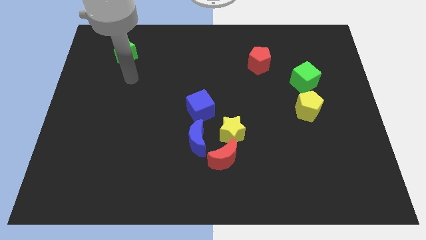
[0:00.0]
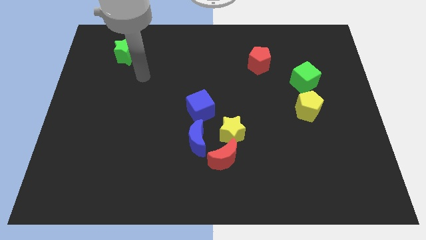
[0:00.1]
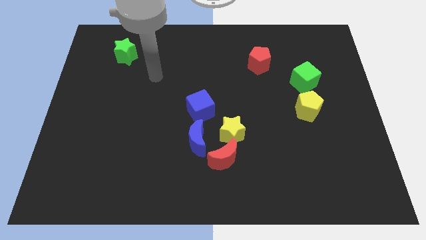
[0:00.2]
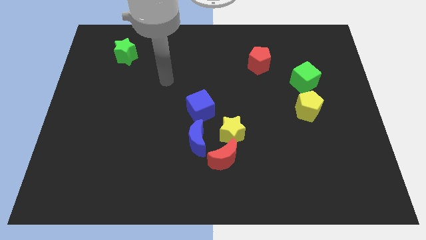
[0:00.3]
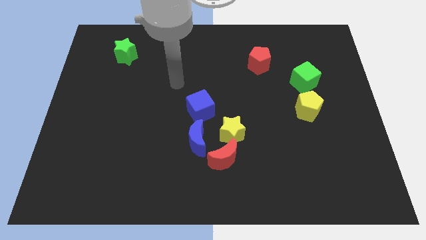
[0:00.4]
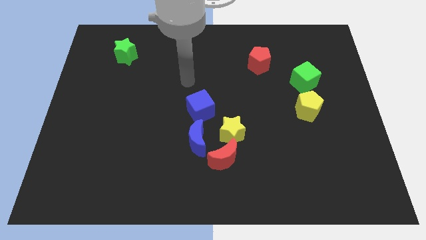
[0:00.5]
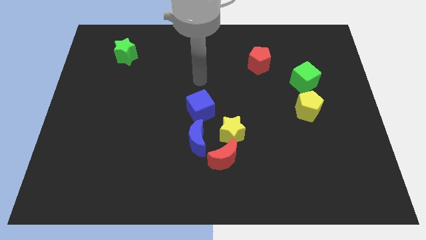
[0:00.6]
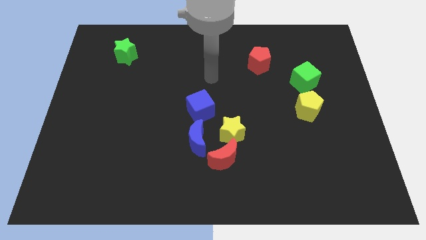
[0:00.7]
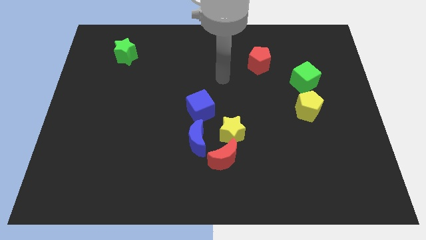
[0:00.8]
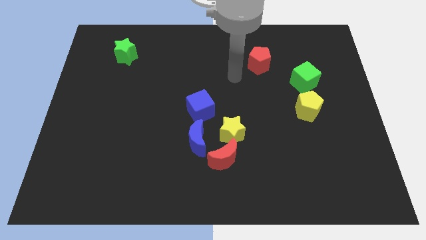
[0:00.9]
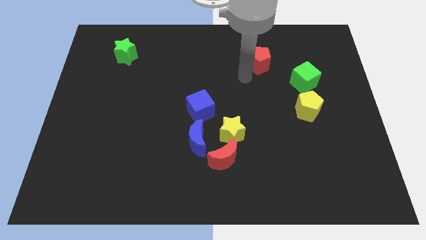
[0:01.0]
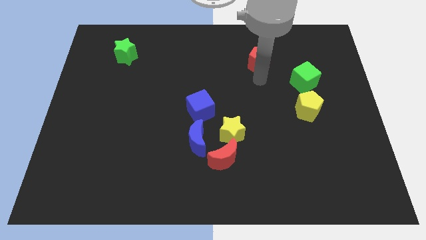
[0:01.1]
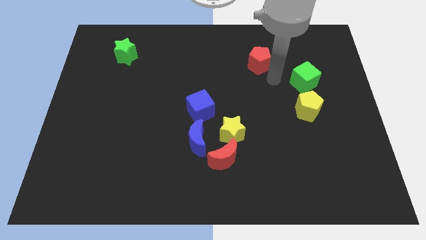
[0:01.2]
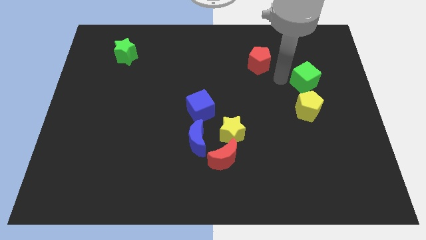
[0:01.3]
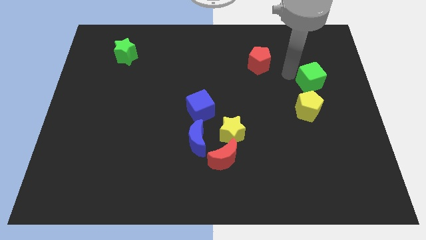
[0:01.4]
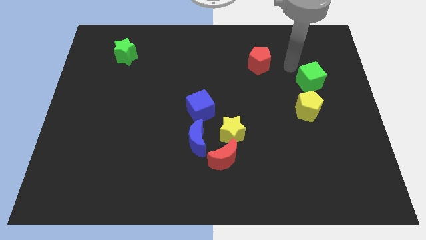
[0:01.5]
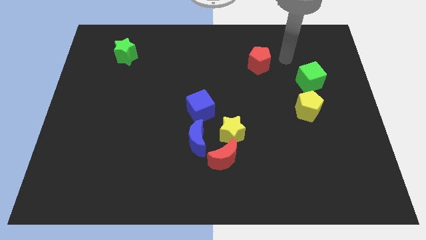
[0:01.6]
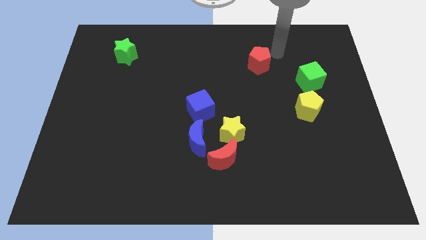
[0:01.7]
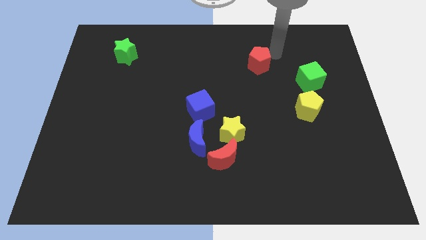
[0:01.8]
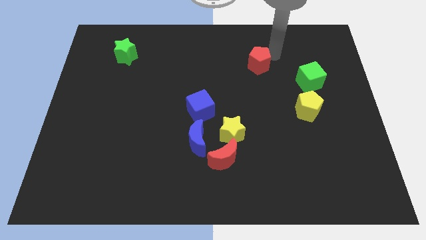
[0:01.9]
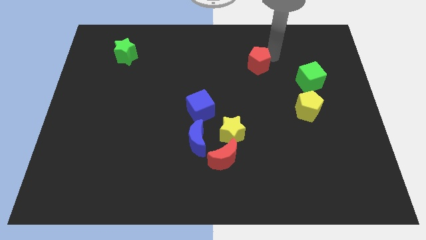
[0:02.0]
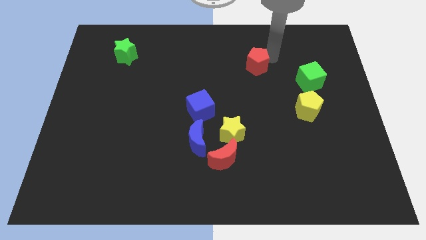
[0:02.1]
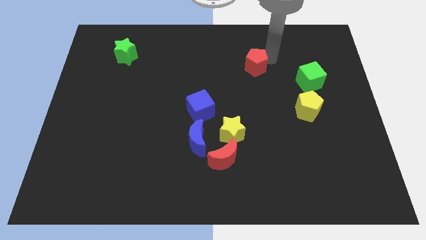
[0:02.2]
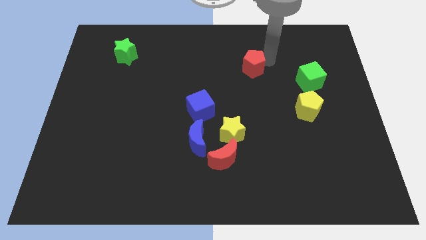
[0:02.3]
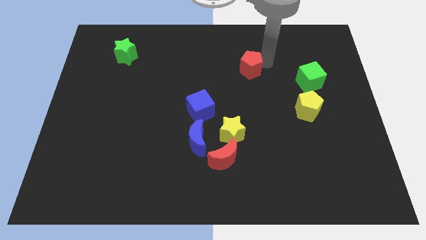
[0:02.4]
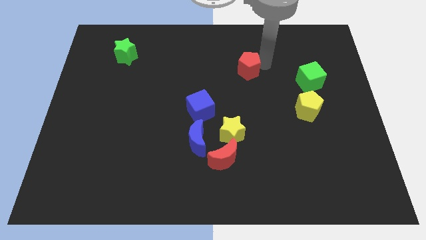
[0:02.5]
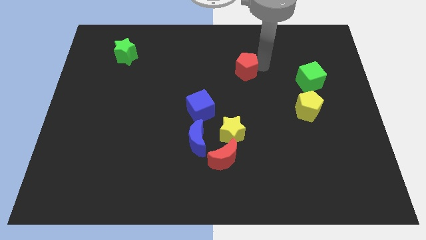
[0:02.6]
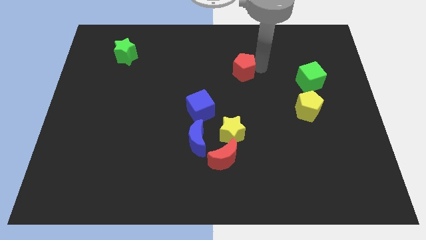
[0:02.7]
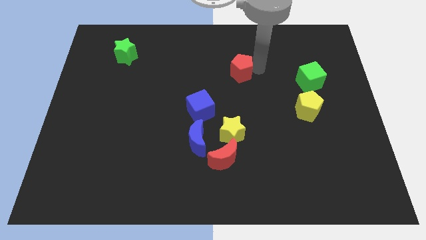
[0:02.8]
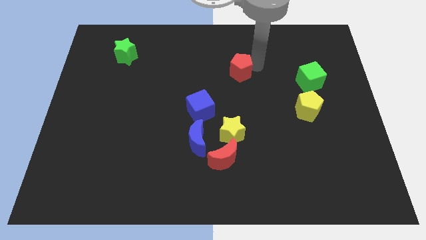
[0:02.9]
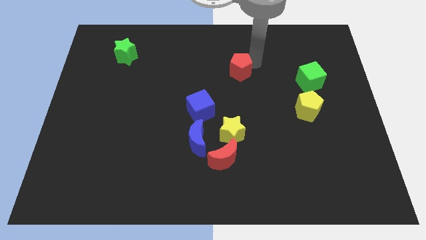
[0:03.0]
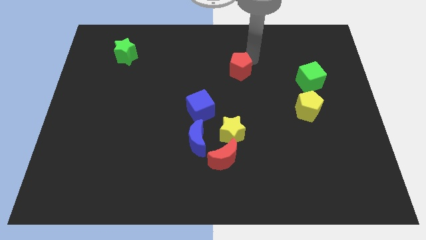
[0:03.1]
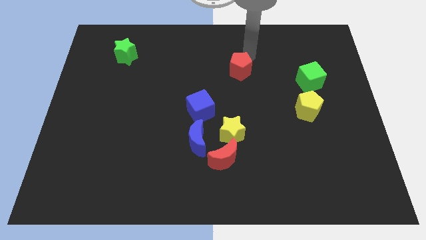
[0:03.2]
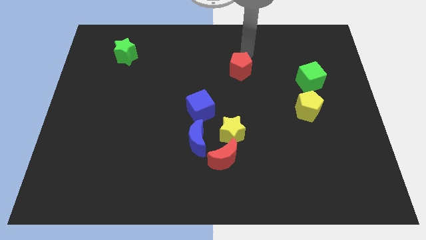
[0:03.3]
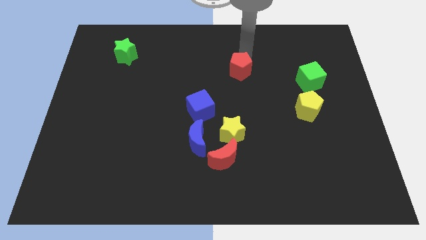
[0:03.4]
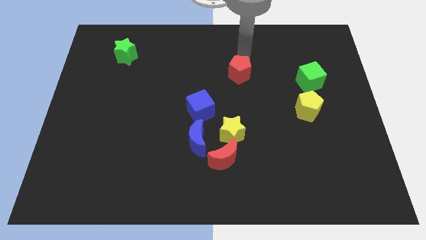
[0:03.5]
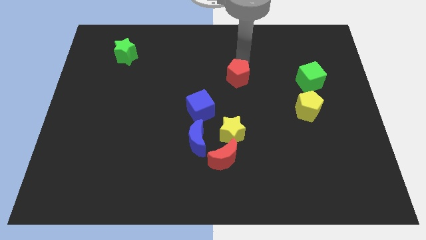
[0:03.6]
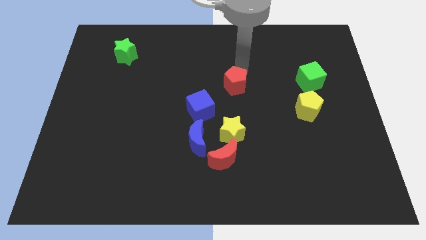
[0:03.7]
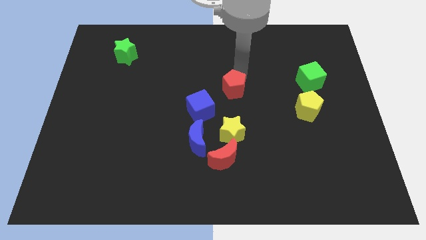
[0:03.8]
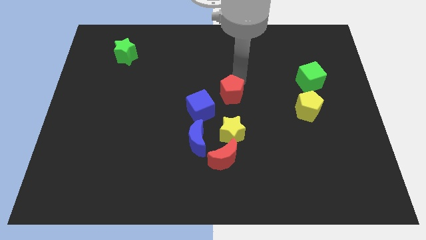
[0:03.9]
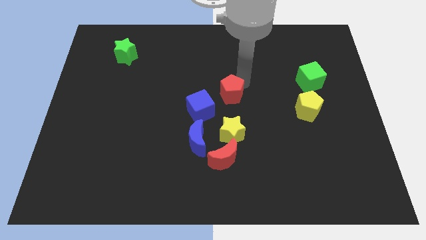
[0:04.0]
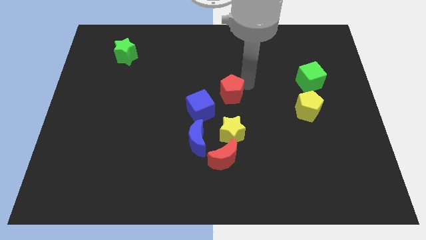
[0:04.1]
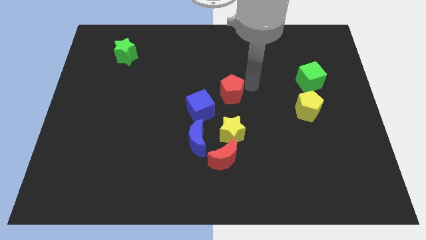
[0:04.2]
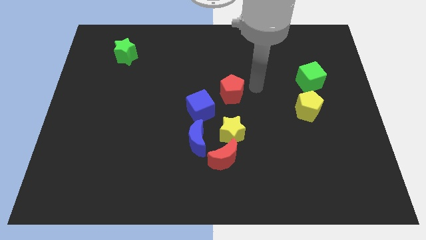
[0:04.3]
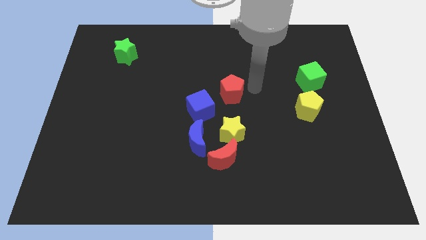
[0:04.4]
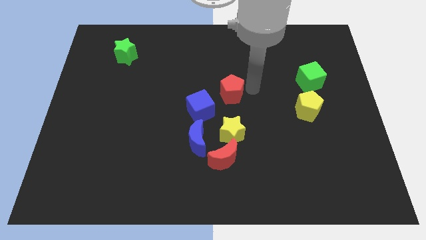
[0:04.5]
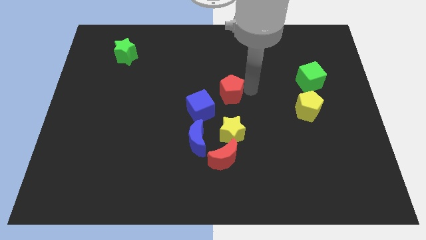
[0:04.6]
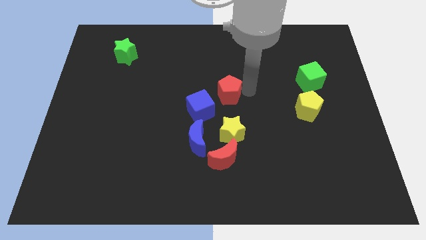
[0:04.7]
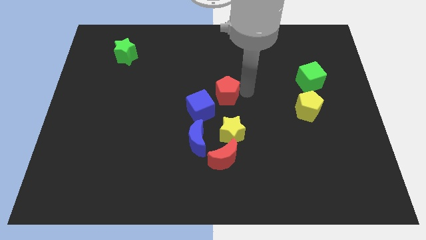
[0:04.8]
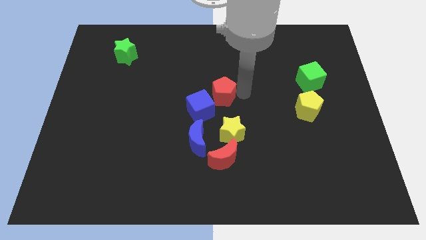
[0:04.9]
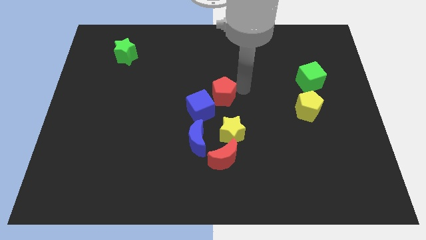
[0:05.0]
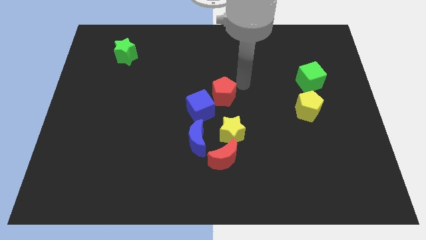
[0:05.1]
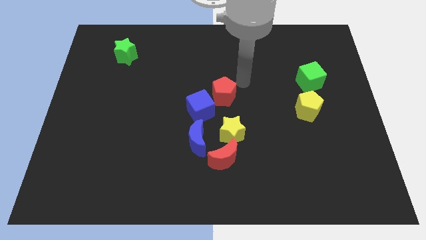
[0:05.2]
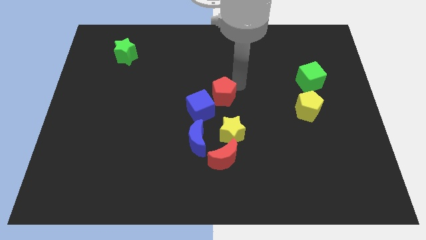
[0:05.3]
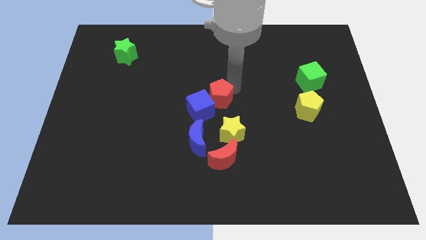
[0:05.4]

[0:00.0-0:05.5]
move the red pentagon next to the blue cube

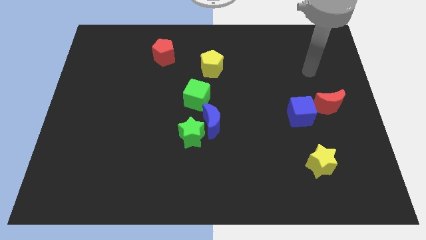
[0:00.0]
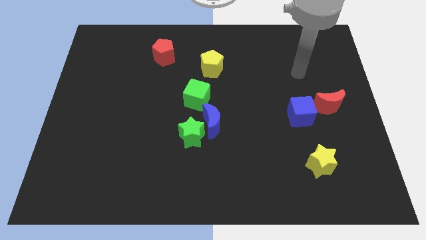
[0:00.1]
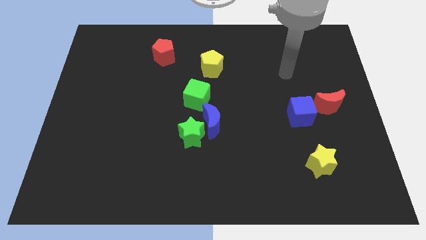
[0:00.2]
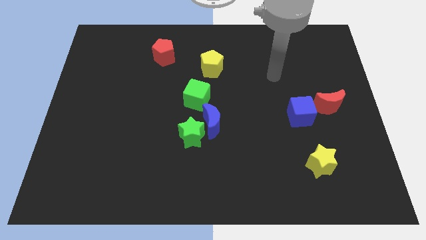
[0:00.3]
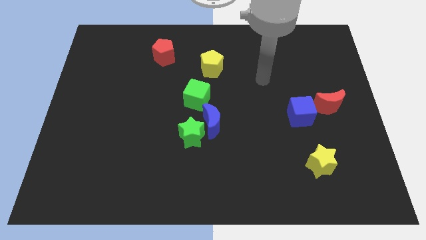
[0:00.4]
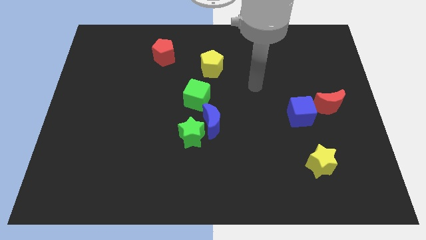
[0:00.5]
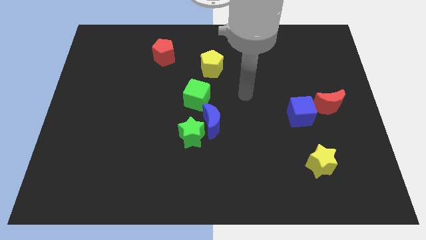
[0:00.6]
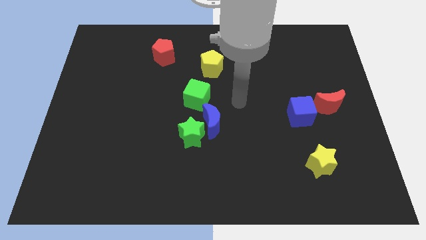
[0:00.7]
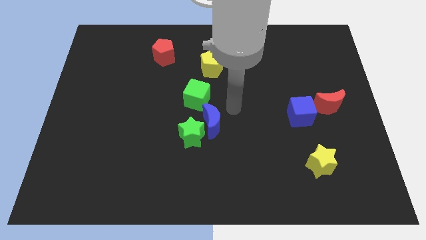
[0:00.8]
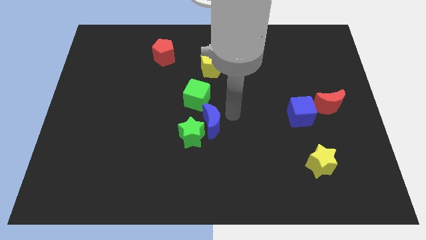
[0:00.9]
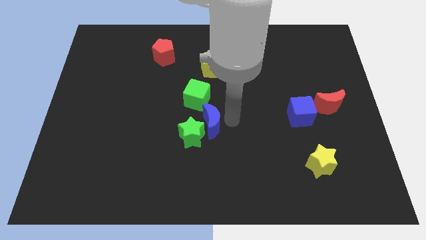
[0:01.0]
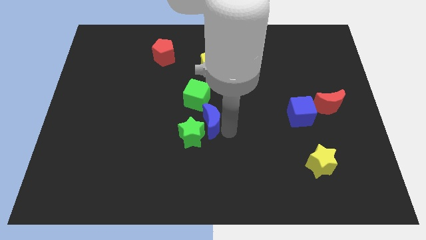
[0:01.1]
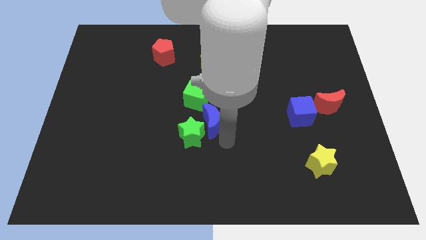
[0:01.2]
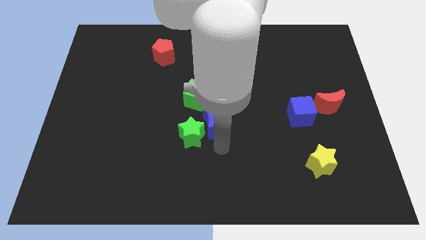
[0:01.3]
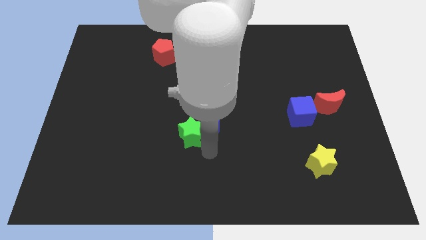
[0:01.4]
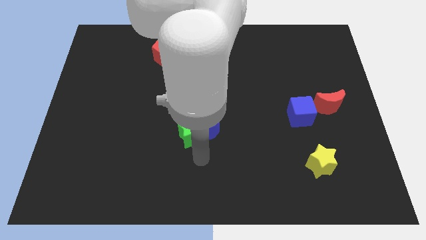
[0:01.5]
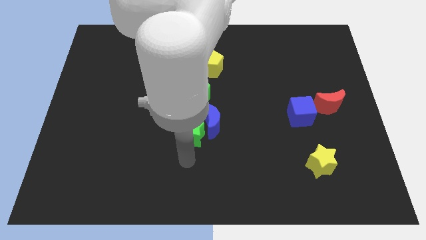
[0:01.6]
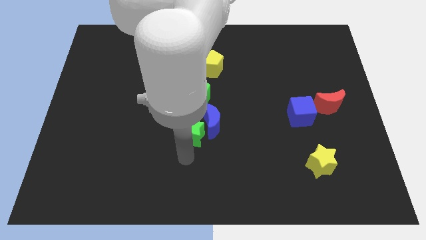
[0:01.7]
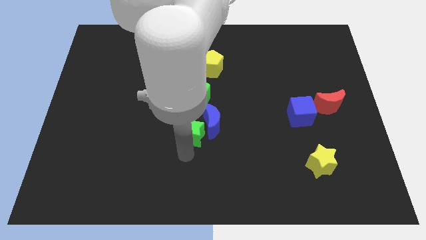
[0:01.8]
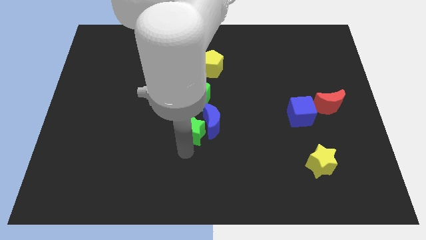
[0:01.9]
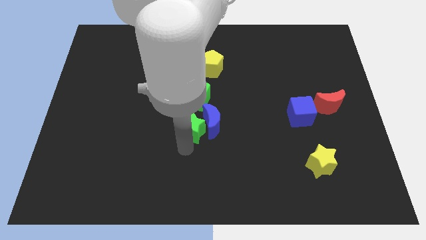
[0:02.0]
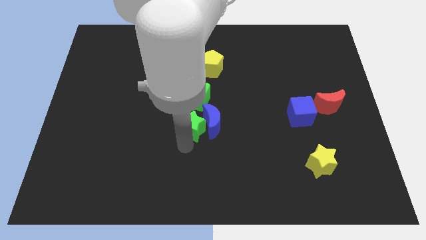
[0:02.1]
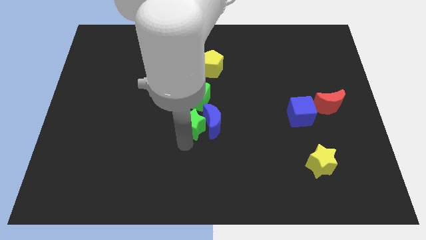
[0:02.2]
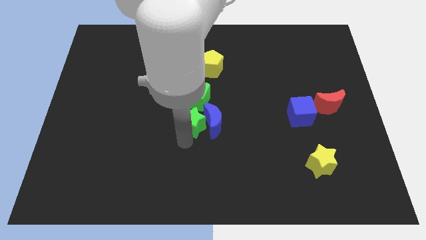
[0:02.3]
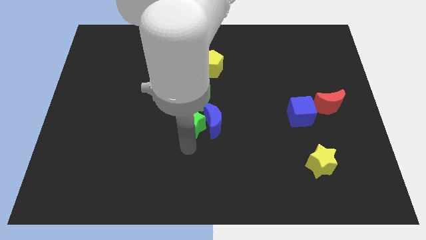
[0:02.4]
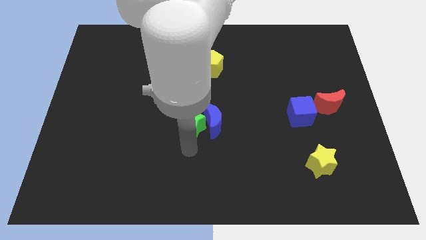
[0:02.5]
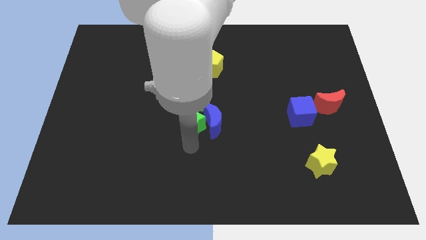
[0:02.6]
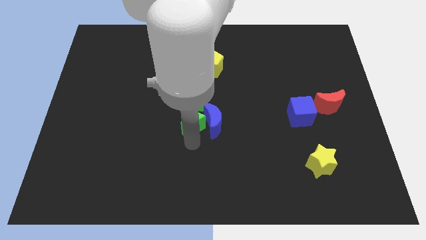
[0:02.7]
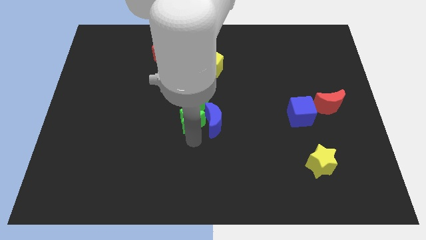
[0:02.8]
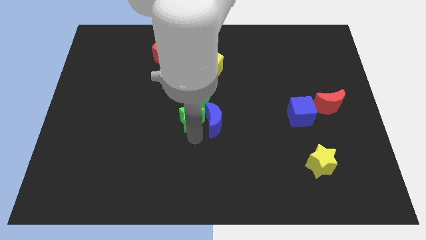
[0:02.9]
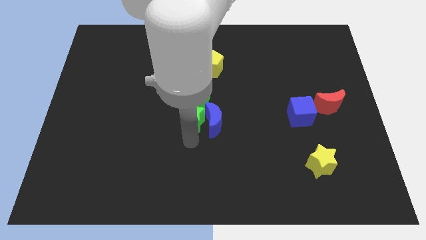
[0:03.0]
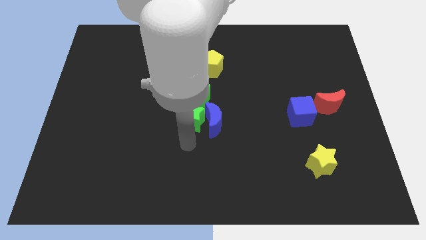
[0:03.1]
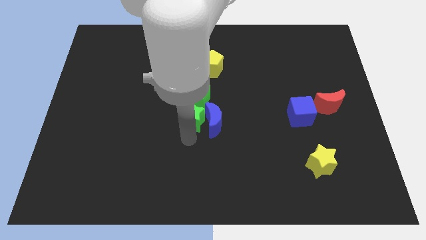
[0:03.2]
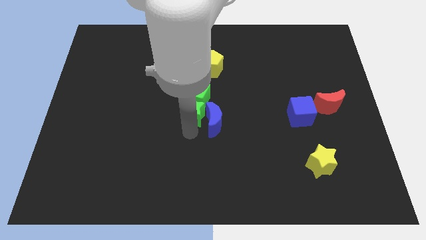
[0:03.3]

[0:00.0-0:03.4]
put the green star to the green cube
